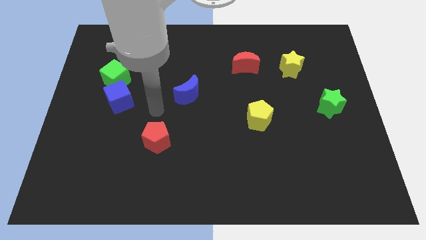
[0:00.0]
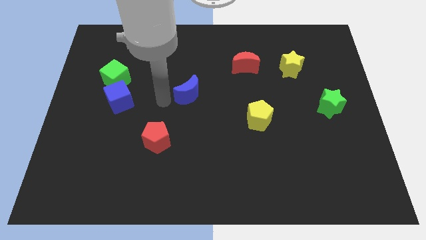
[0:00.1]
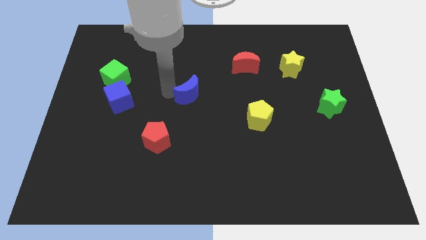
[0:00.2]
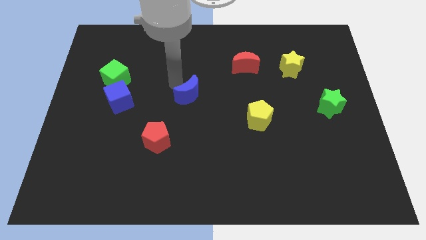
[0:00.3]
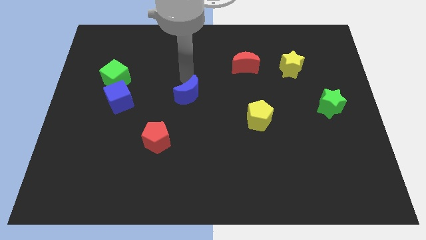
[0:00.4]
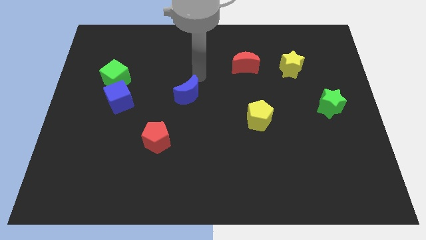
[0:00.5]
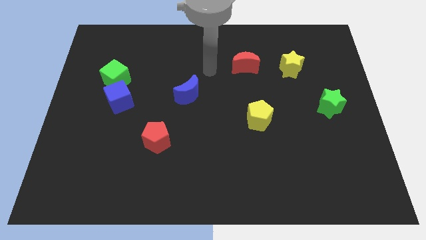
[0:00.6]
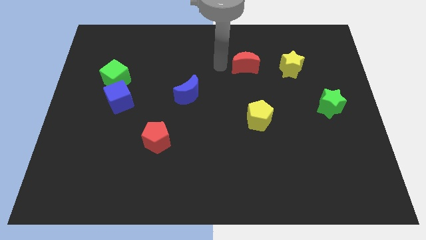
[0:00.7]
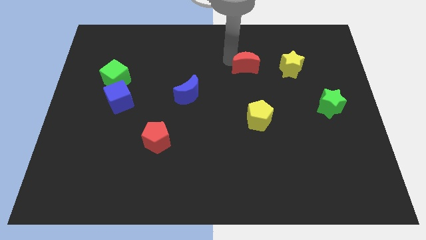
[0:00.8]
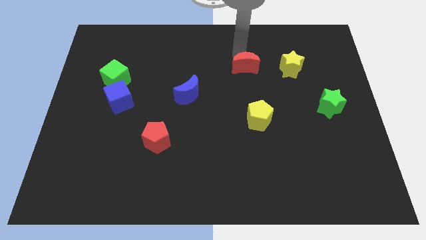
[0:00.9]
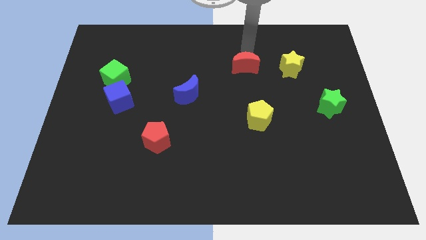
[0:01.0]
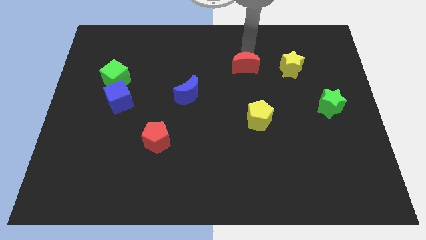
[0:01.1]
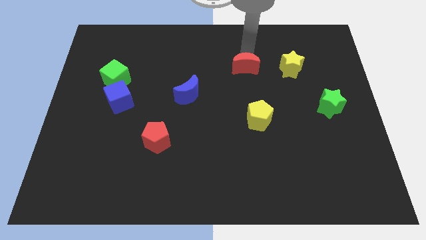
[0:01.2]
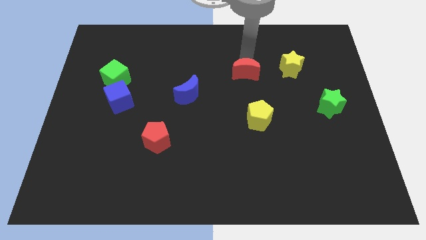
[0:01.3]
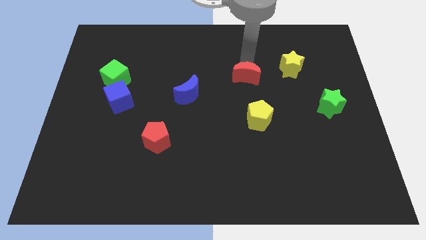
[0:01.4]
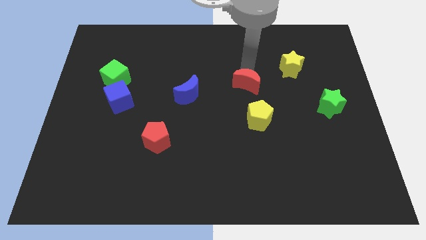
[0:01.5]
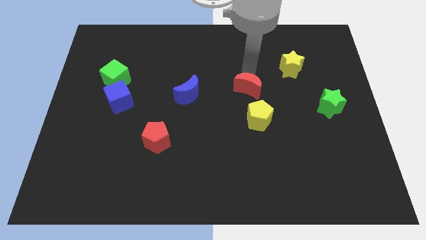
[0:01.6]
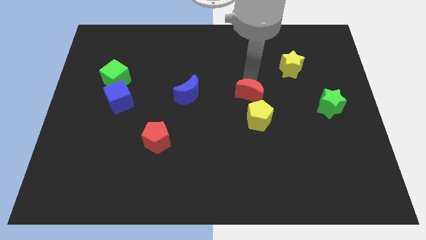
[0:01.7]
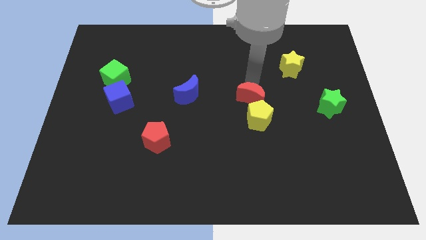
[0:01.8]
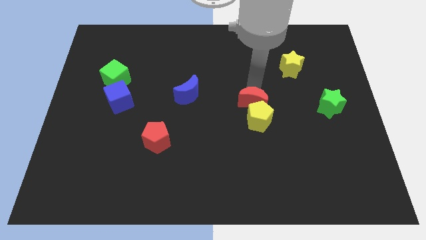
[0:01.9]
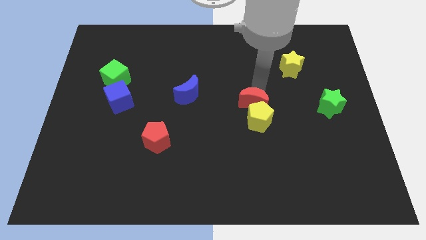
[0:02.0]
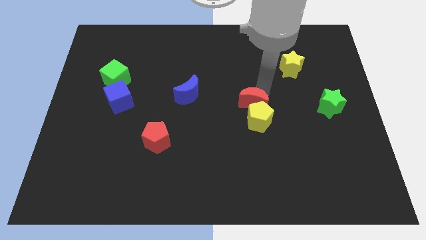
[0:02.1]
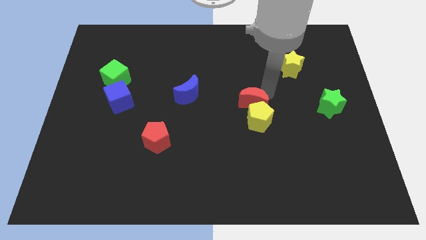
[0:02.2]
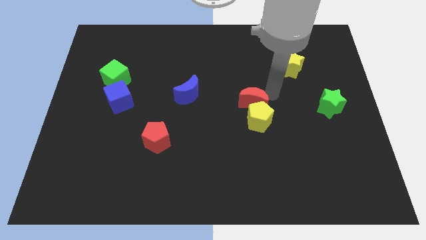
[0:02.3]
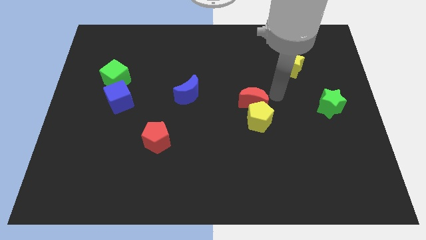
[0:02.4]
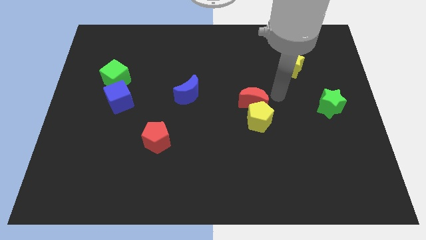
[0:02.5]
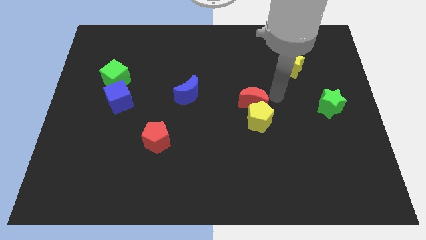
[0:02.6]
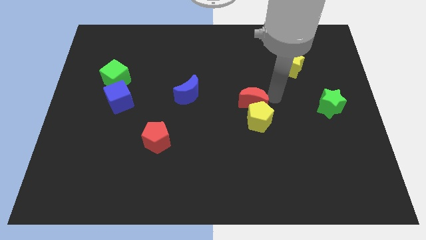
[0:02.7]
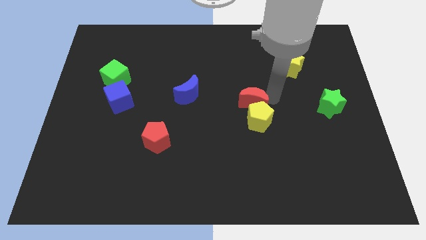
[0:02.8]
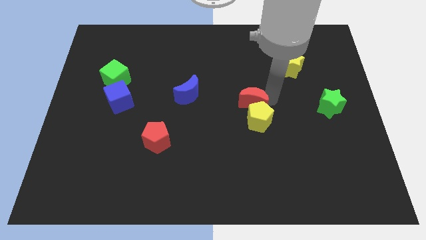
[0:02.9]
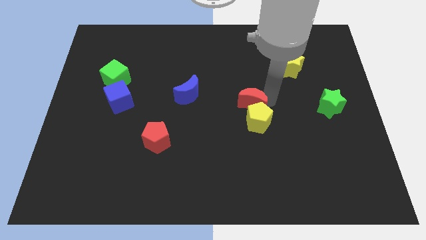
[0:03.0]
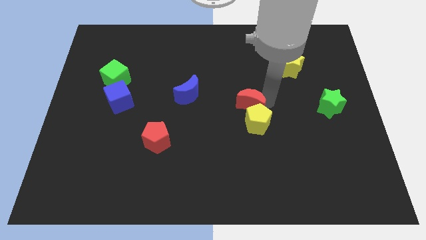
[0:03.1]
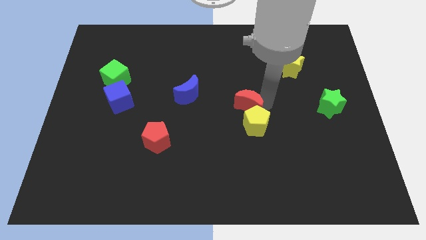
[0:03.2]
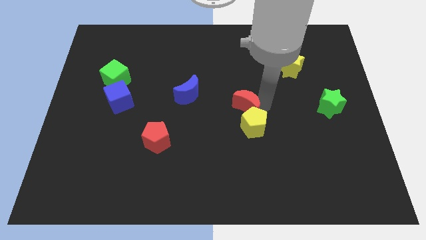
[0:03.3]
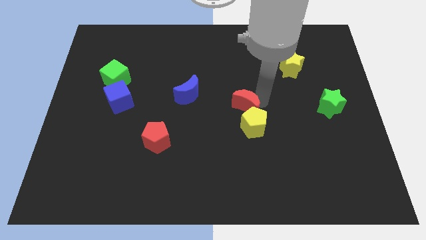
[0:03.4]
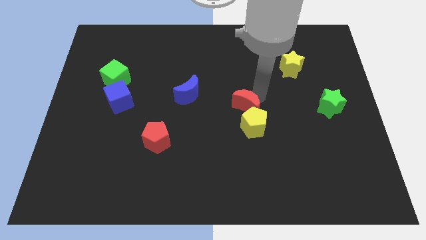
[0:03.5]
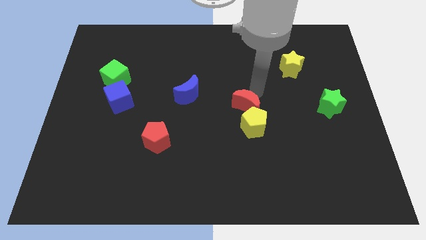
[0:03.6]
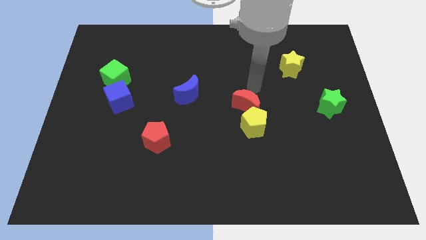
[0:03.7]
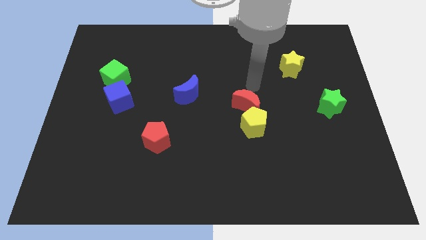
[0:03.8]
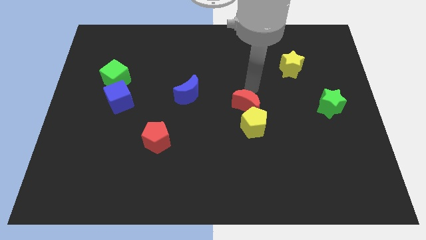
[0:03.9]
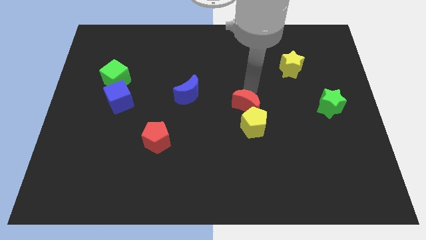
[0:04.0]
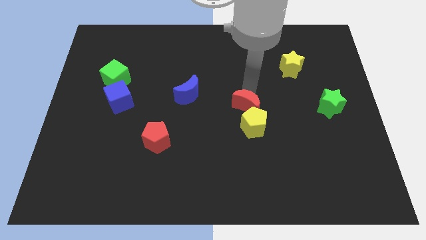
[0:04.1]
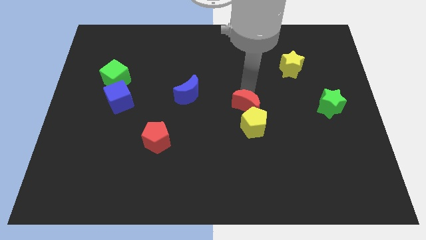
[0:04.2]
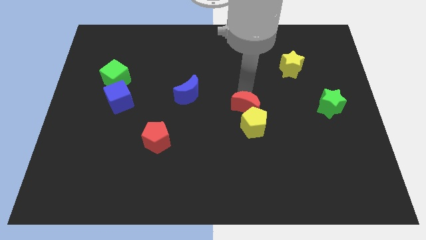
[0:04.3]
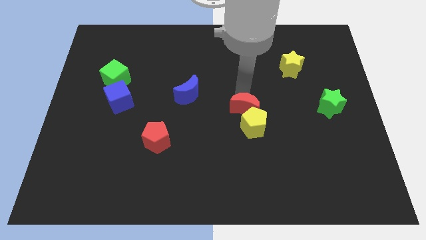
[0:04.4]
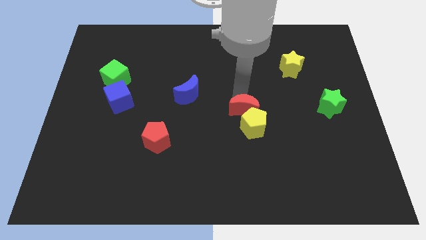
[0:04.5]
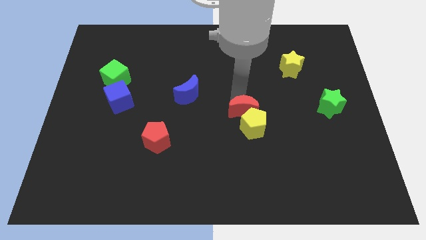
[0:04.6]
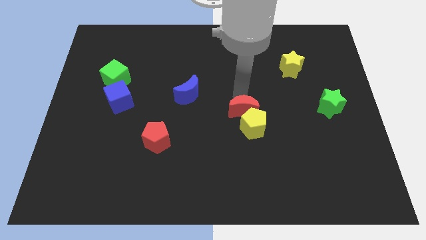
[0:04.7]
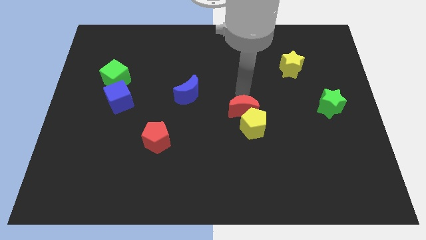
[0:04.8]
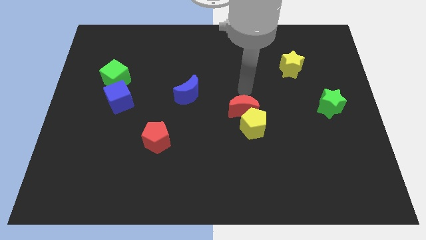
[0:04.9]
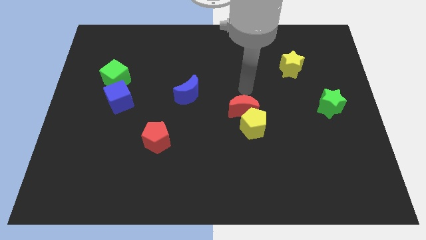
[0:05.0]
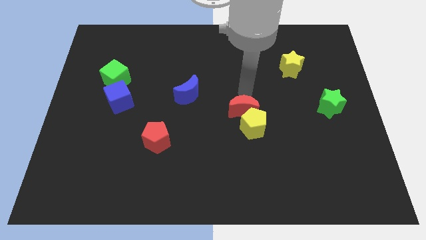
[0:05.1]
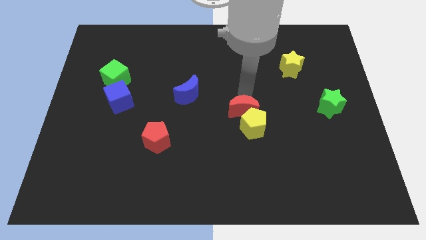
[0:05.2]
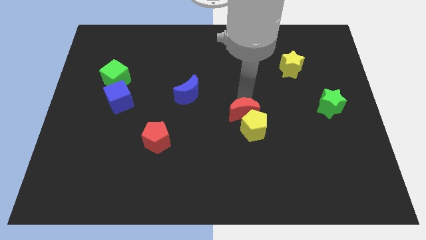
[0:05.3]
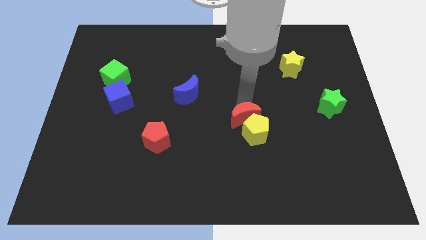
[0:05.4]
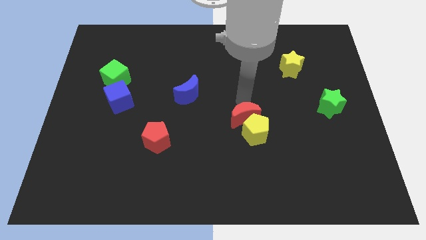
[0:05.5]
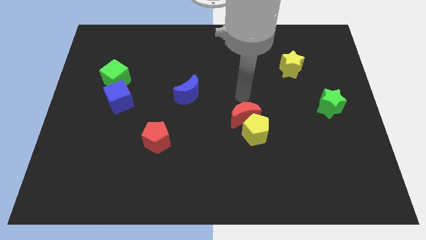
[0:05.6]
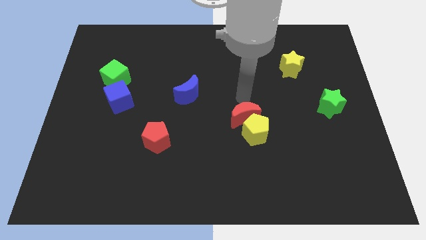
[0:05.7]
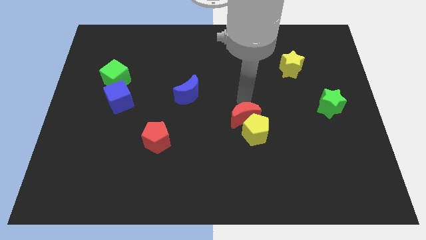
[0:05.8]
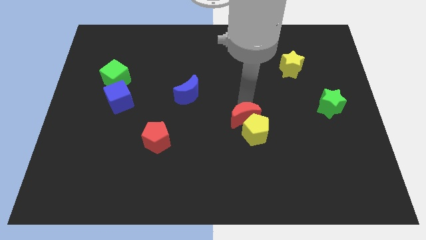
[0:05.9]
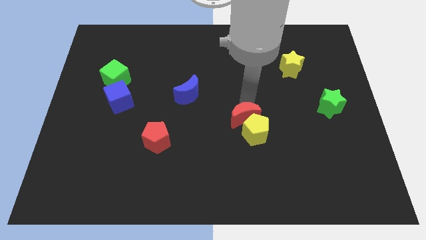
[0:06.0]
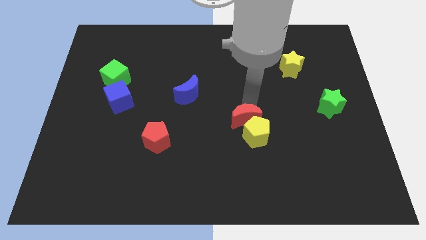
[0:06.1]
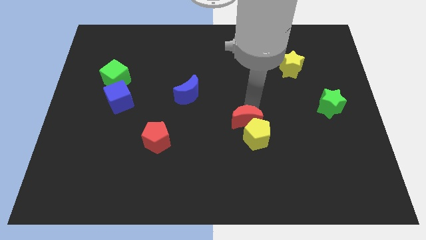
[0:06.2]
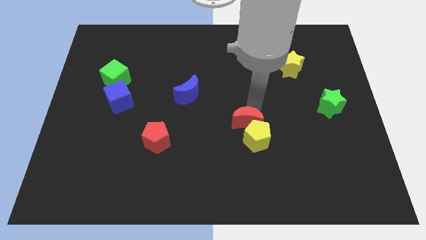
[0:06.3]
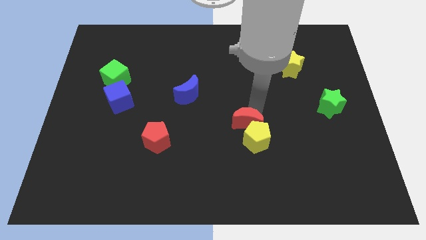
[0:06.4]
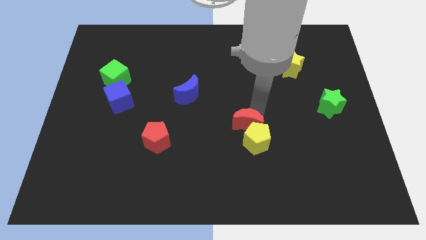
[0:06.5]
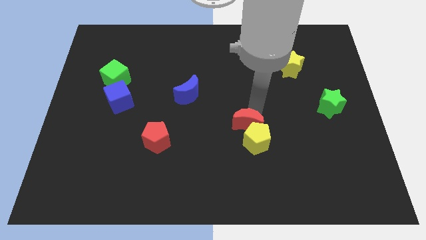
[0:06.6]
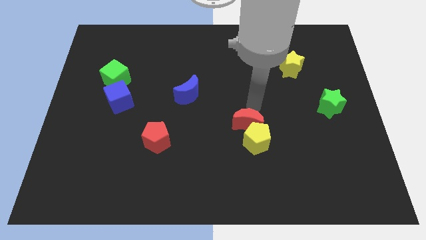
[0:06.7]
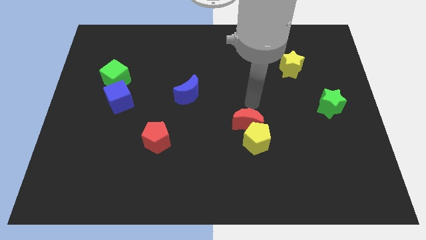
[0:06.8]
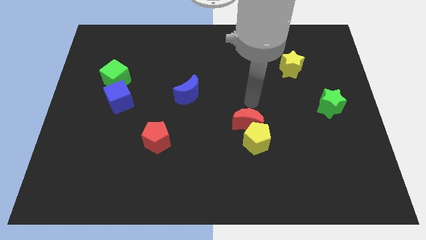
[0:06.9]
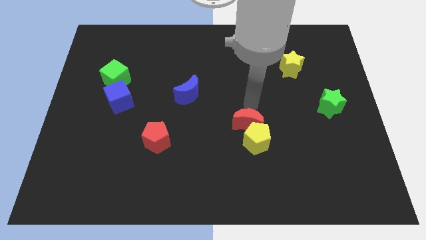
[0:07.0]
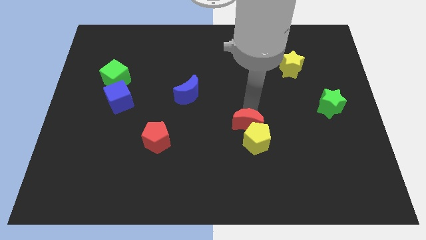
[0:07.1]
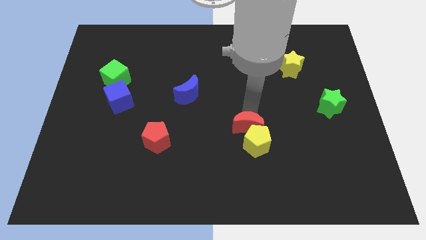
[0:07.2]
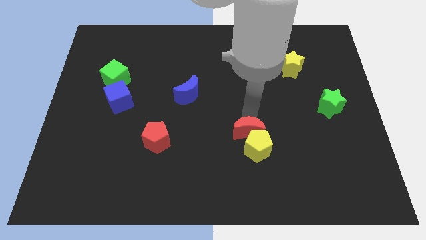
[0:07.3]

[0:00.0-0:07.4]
slide the red moon downwards

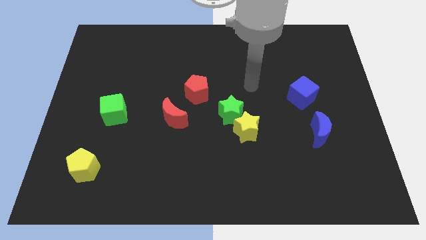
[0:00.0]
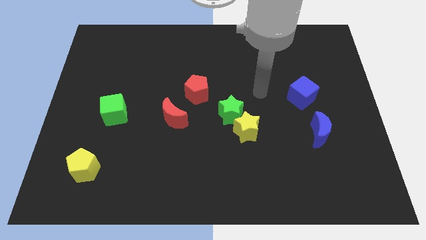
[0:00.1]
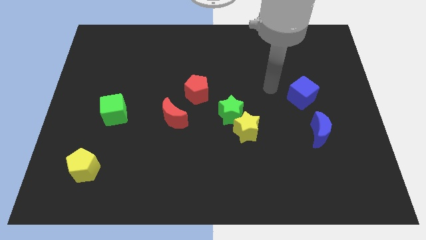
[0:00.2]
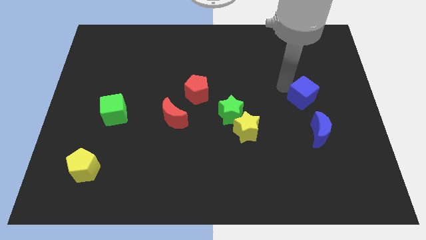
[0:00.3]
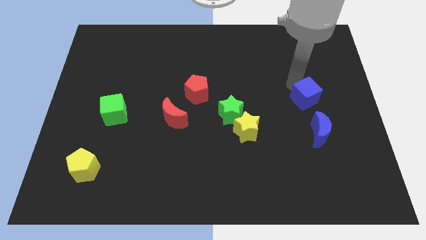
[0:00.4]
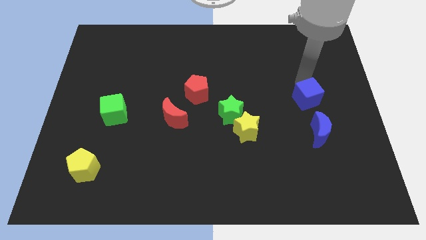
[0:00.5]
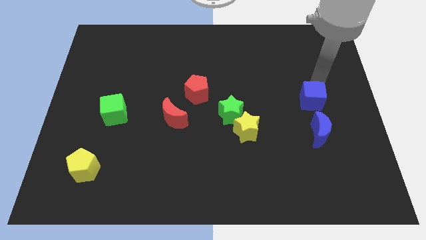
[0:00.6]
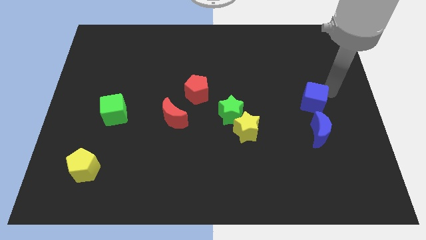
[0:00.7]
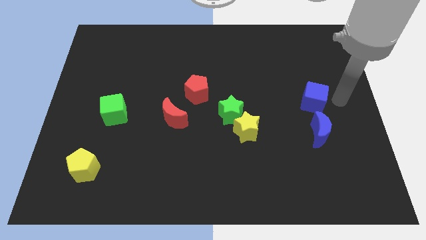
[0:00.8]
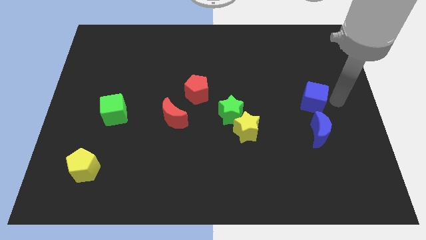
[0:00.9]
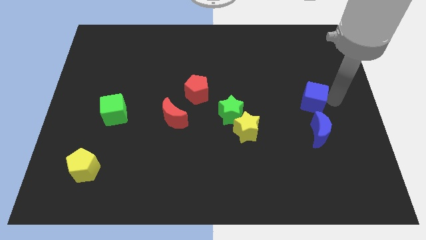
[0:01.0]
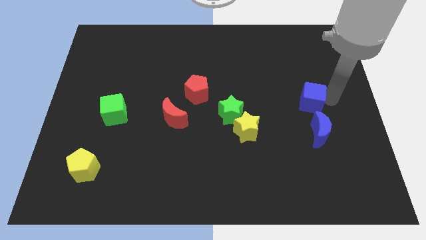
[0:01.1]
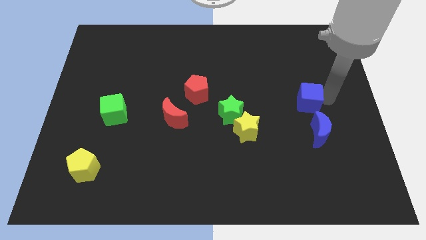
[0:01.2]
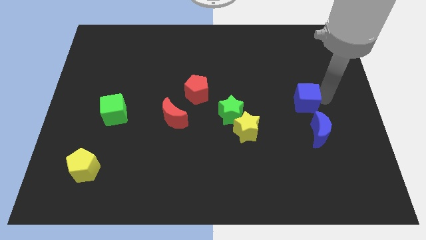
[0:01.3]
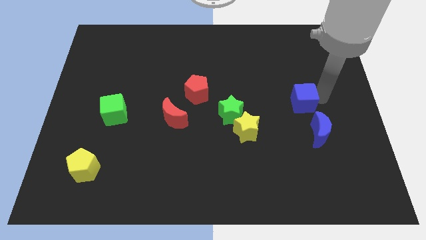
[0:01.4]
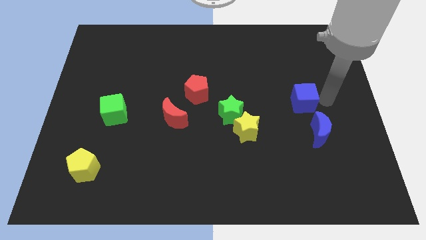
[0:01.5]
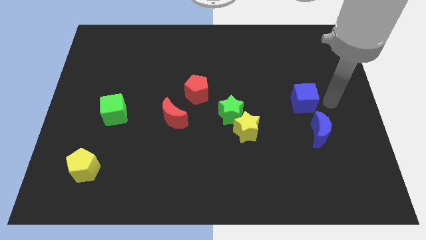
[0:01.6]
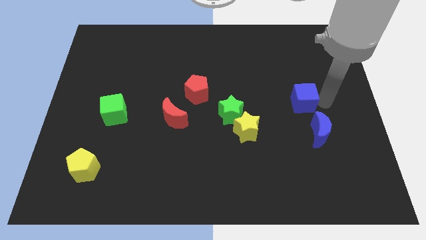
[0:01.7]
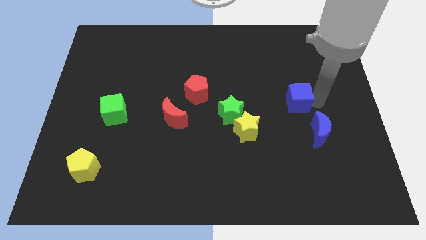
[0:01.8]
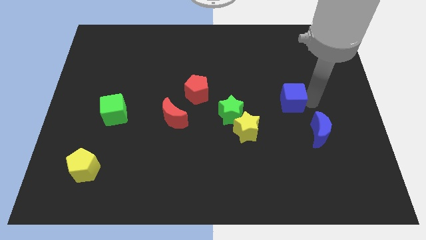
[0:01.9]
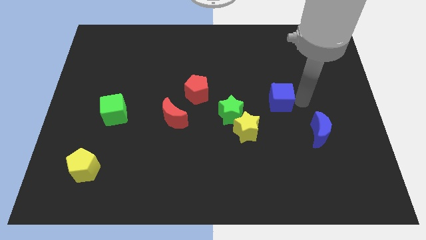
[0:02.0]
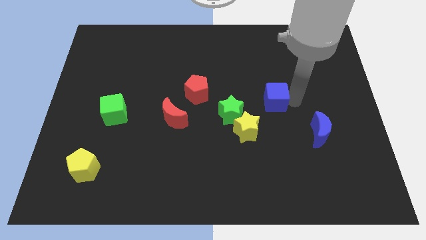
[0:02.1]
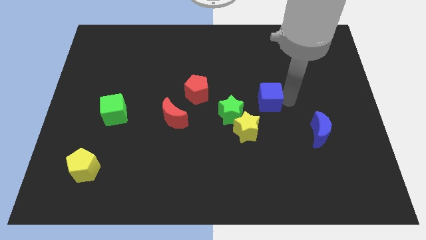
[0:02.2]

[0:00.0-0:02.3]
move the blue cube left a little
